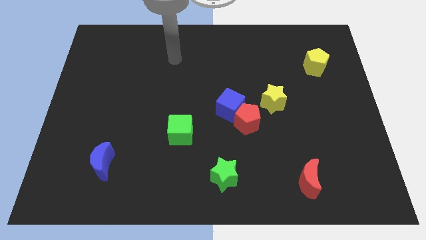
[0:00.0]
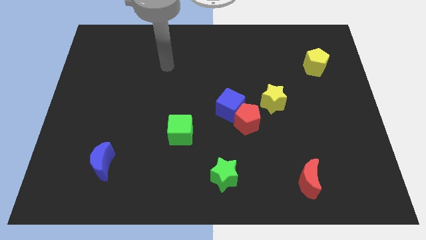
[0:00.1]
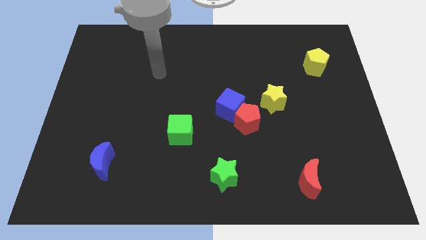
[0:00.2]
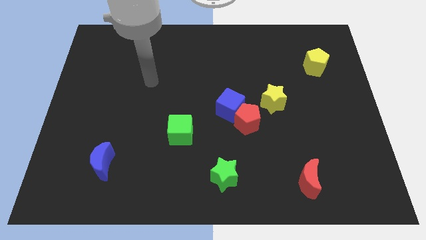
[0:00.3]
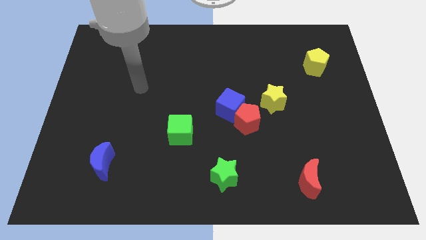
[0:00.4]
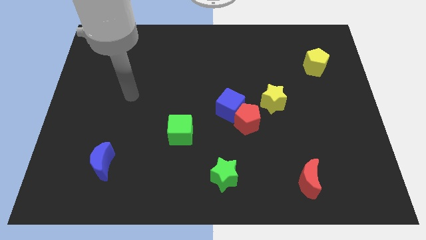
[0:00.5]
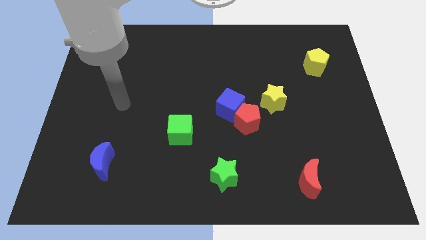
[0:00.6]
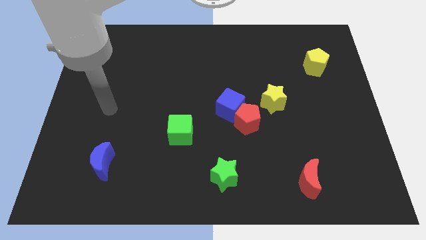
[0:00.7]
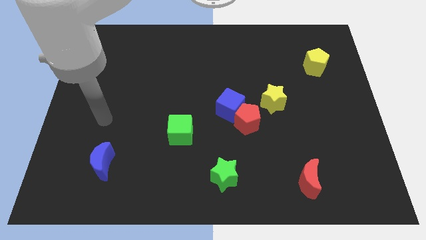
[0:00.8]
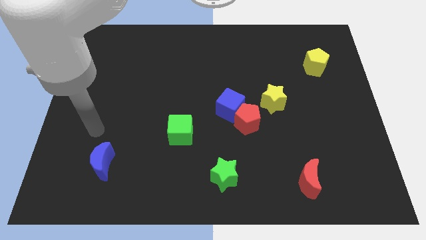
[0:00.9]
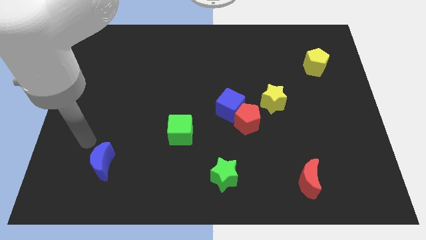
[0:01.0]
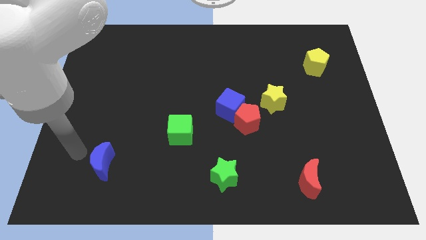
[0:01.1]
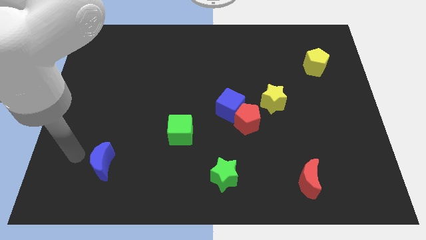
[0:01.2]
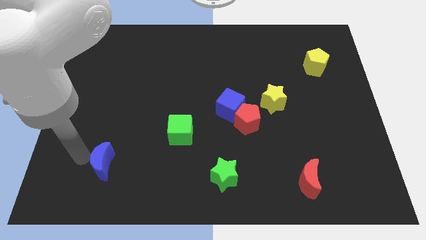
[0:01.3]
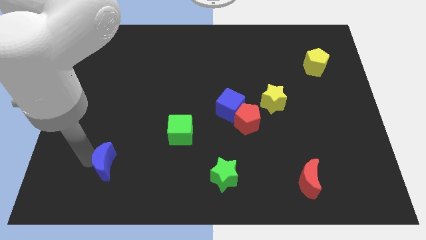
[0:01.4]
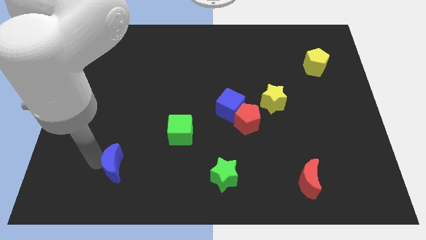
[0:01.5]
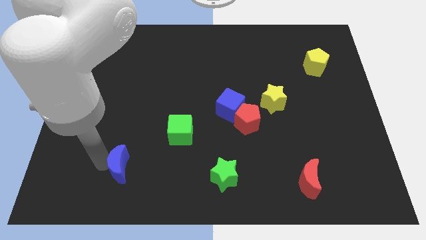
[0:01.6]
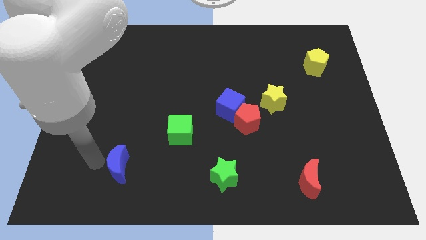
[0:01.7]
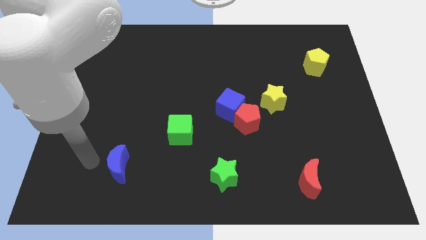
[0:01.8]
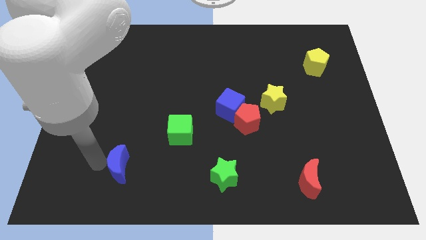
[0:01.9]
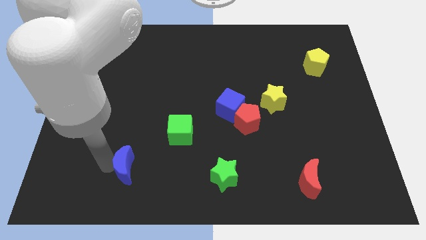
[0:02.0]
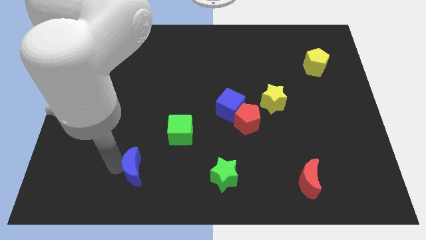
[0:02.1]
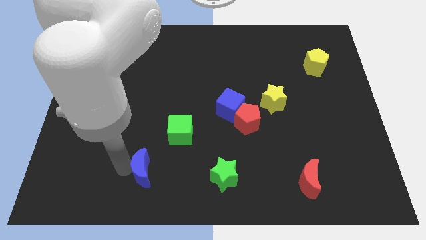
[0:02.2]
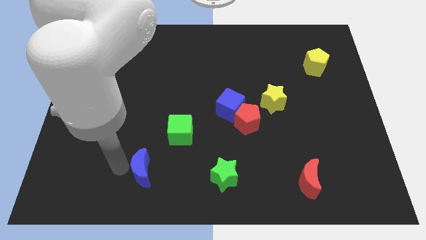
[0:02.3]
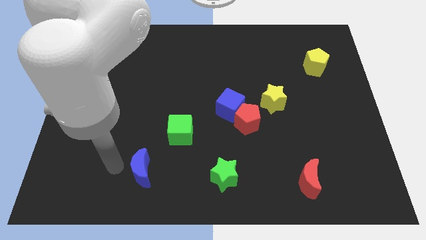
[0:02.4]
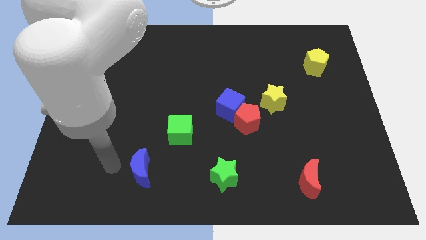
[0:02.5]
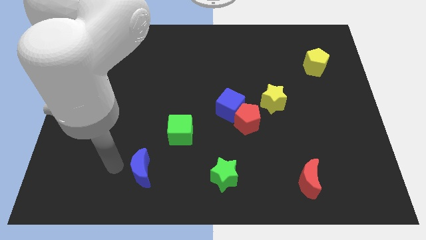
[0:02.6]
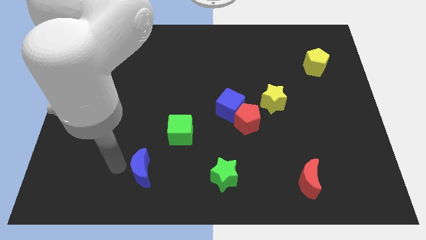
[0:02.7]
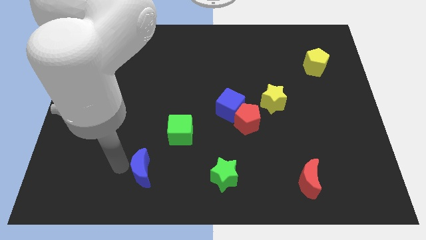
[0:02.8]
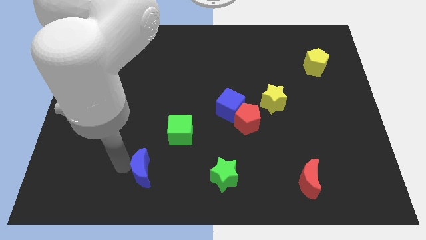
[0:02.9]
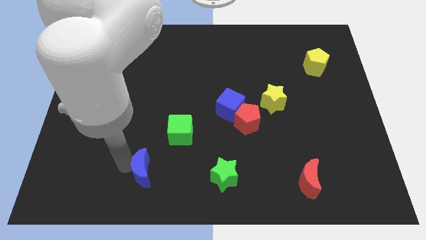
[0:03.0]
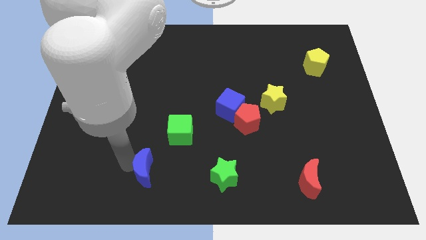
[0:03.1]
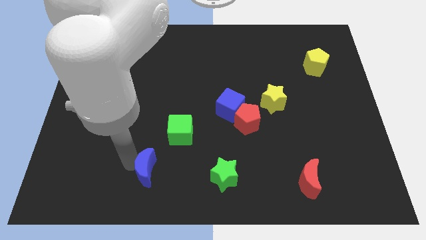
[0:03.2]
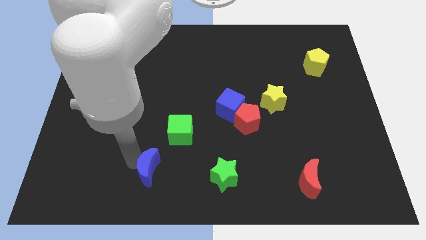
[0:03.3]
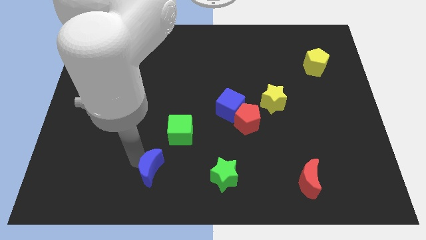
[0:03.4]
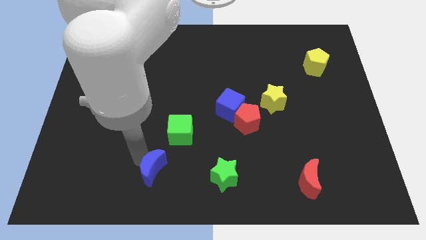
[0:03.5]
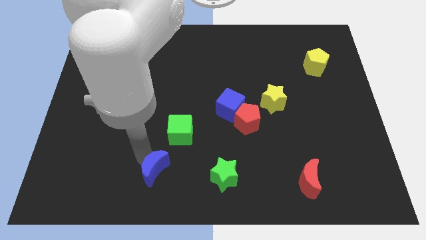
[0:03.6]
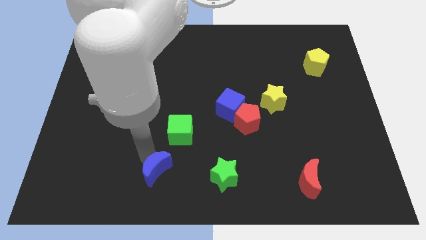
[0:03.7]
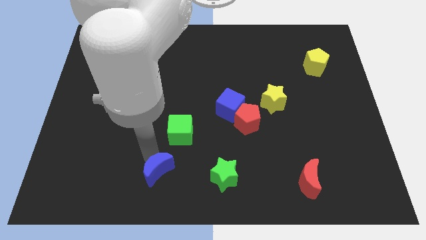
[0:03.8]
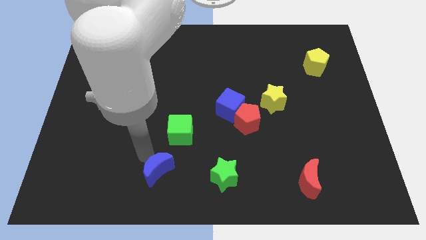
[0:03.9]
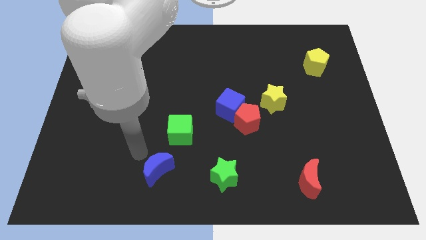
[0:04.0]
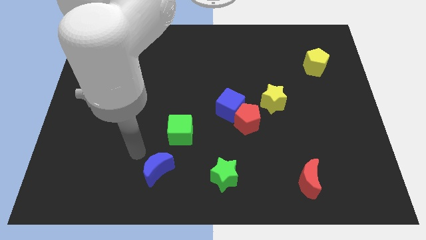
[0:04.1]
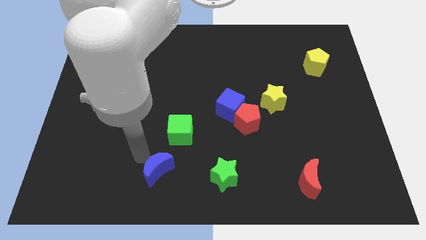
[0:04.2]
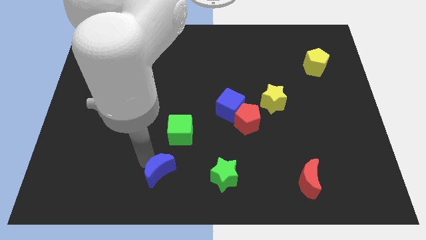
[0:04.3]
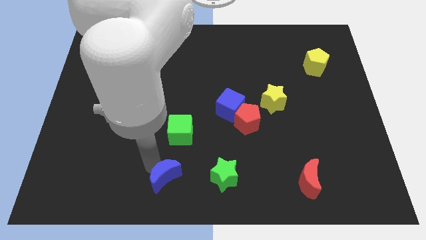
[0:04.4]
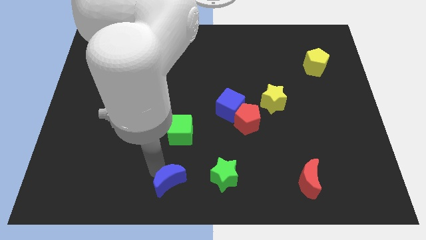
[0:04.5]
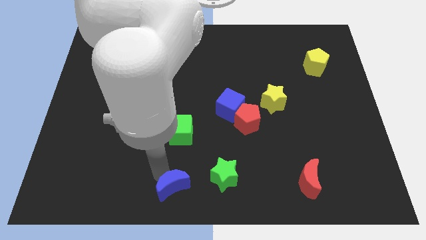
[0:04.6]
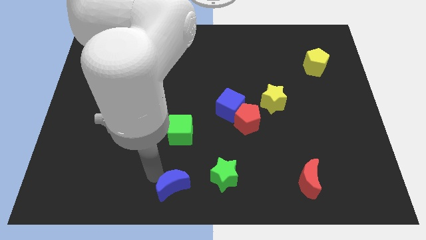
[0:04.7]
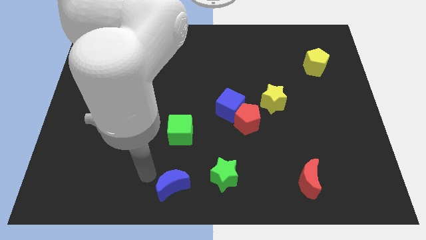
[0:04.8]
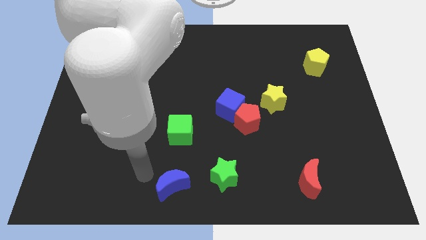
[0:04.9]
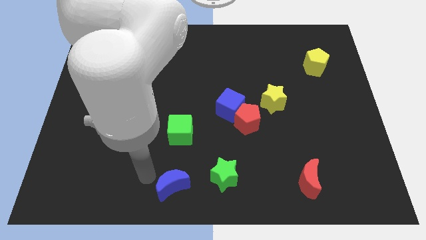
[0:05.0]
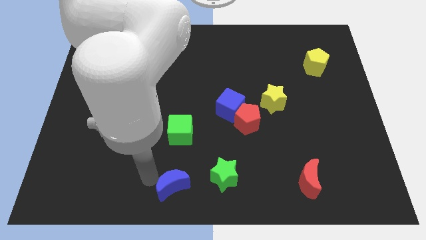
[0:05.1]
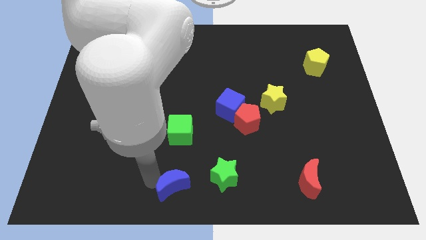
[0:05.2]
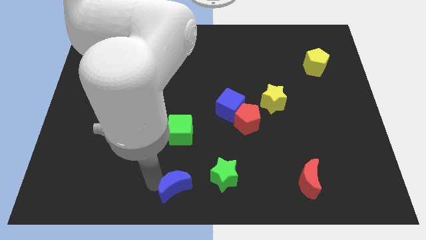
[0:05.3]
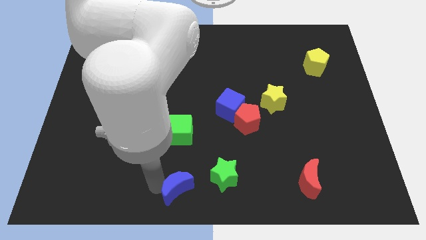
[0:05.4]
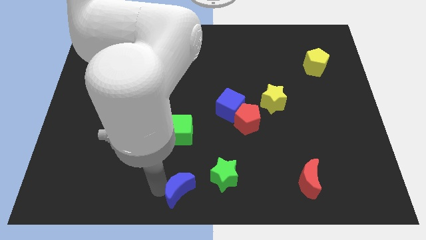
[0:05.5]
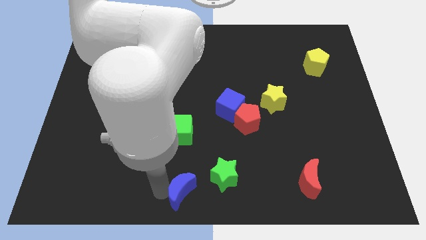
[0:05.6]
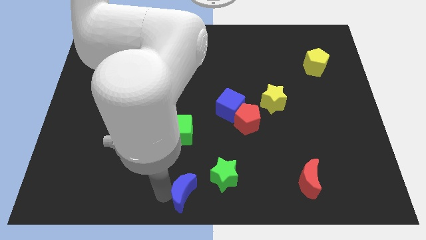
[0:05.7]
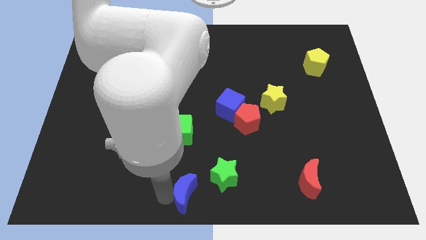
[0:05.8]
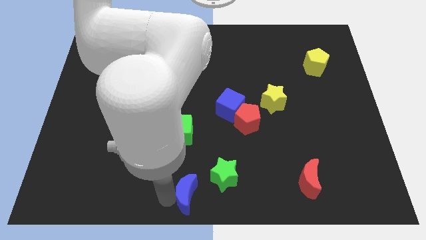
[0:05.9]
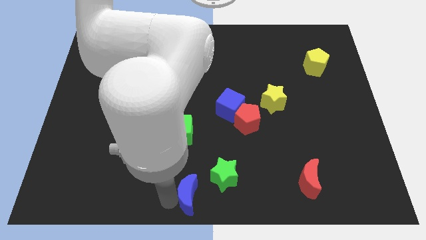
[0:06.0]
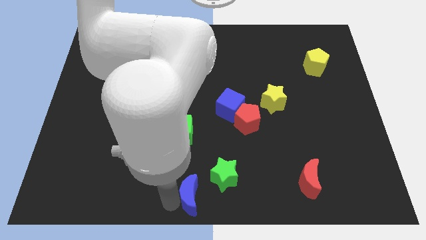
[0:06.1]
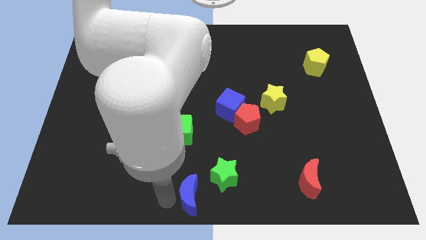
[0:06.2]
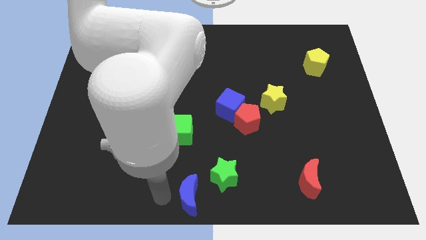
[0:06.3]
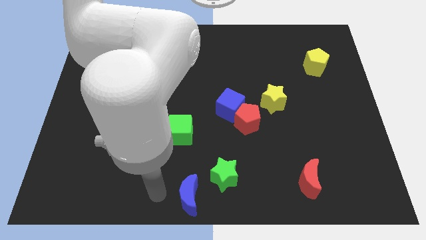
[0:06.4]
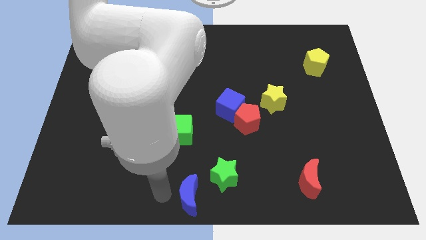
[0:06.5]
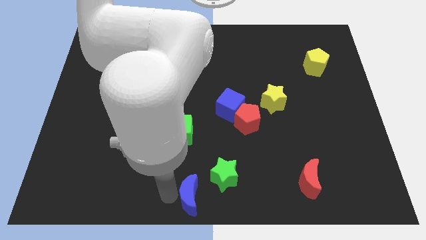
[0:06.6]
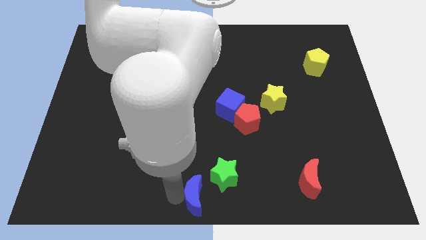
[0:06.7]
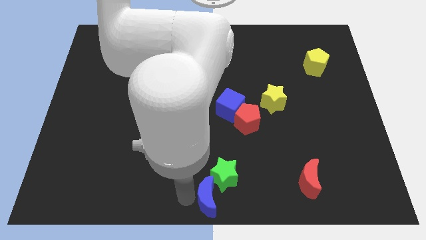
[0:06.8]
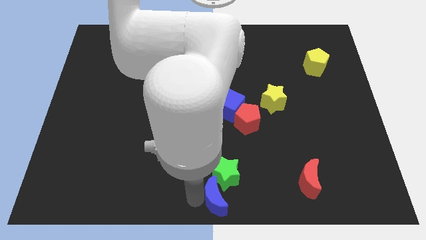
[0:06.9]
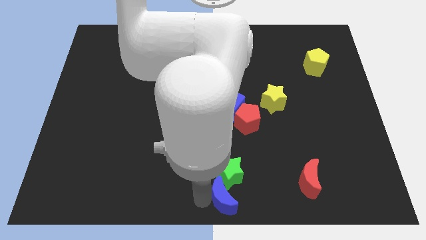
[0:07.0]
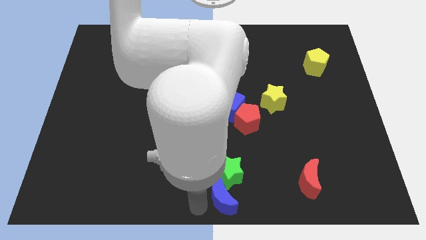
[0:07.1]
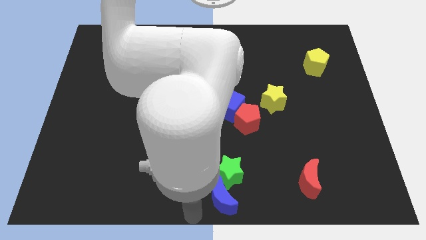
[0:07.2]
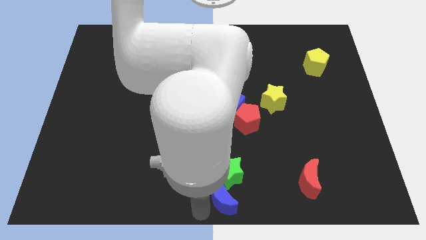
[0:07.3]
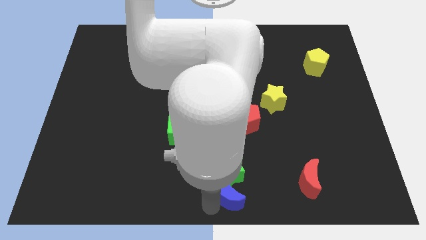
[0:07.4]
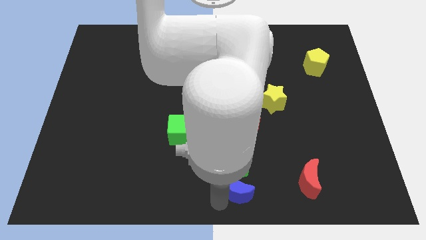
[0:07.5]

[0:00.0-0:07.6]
push the blue moon to the left side of the red moon
